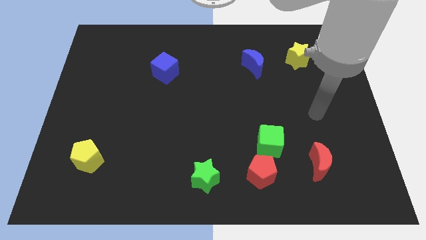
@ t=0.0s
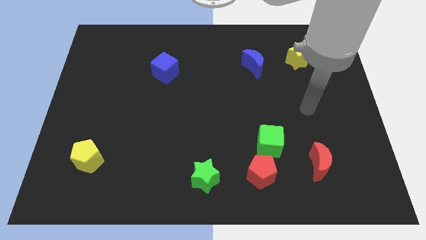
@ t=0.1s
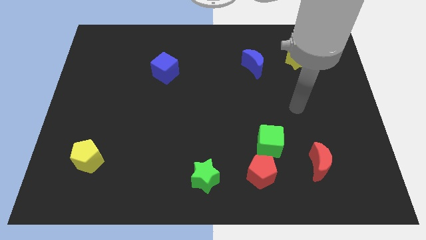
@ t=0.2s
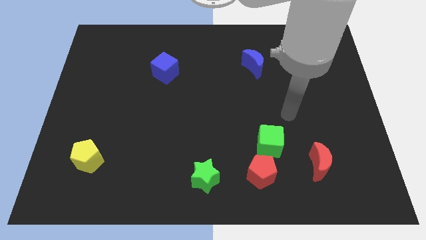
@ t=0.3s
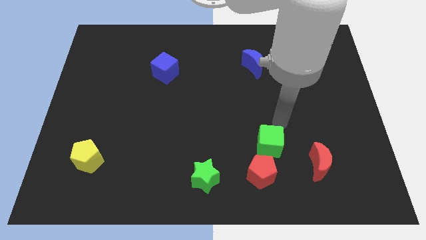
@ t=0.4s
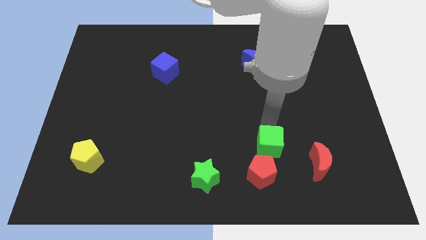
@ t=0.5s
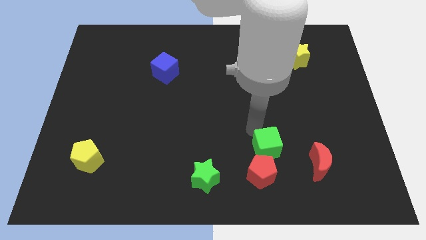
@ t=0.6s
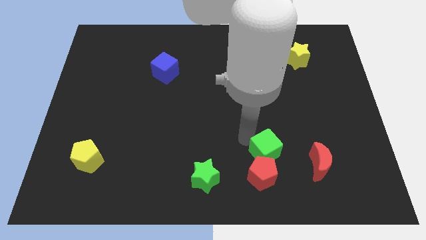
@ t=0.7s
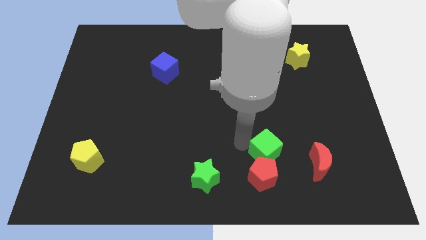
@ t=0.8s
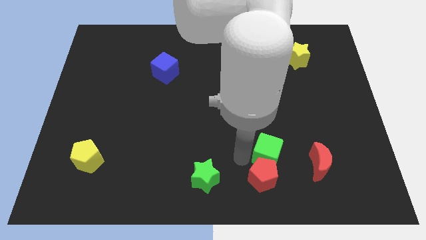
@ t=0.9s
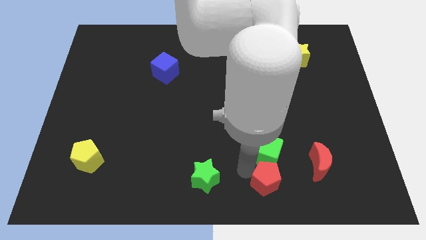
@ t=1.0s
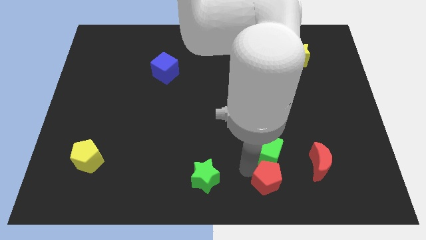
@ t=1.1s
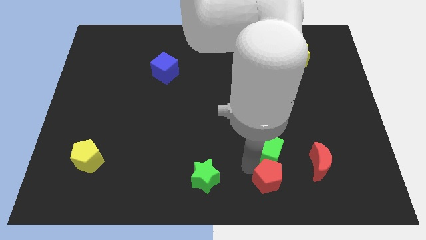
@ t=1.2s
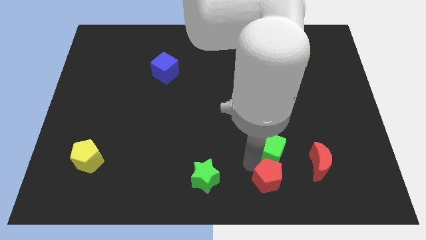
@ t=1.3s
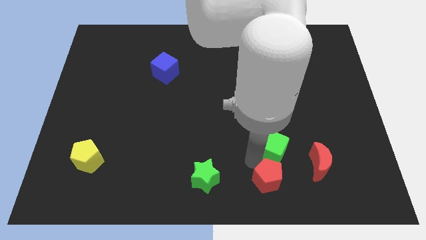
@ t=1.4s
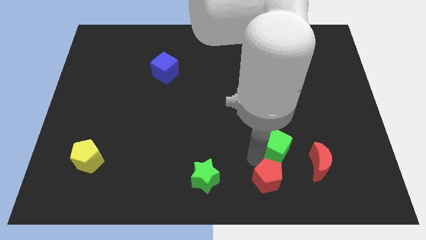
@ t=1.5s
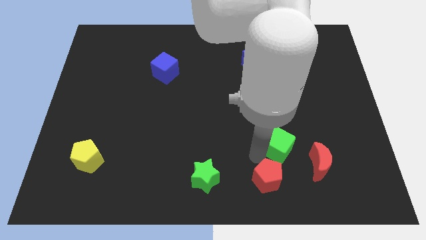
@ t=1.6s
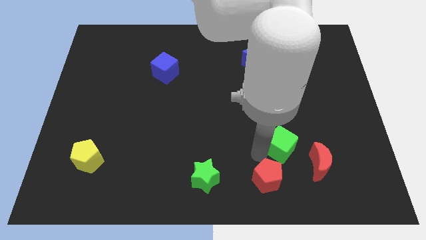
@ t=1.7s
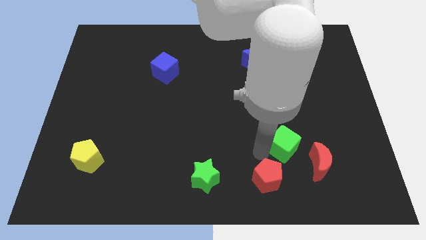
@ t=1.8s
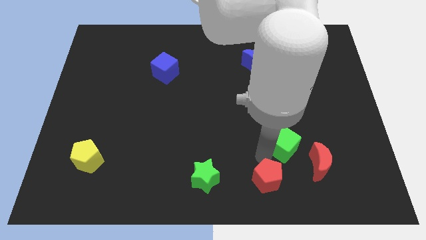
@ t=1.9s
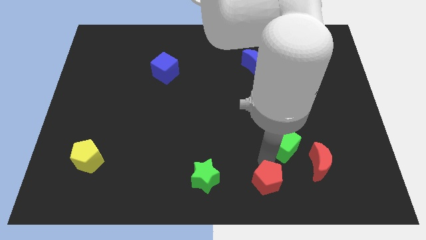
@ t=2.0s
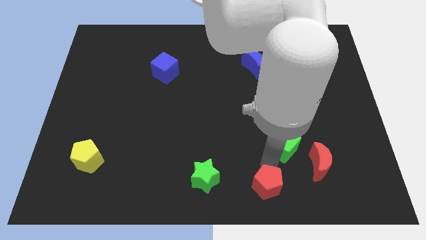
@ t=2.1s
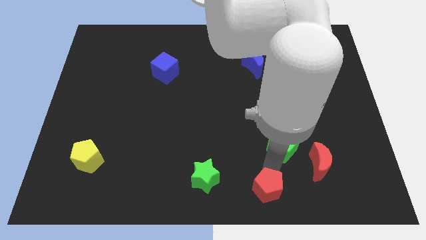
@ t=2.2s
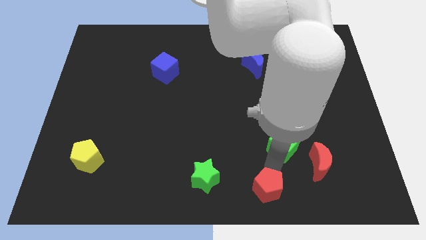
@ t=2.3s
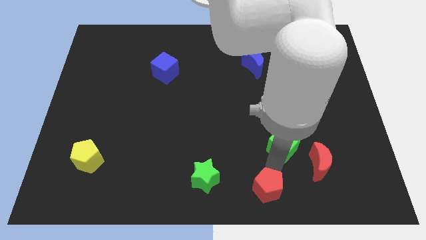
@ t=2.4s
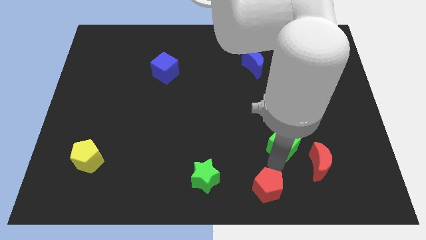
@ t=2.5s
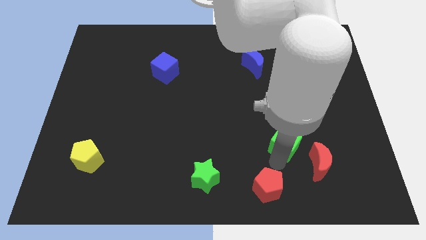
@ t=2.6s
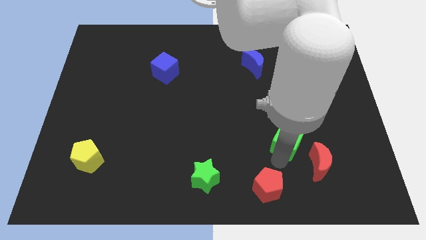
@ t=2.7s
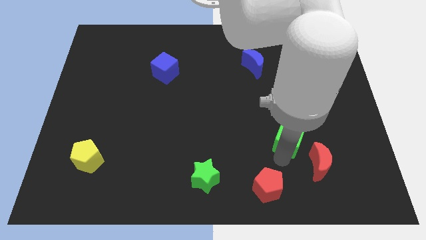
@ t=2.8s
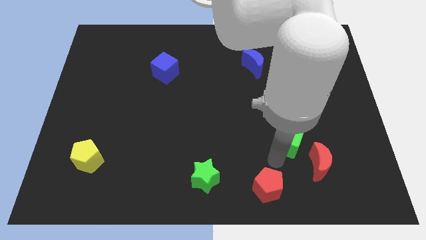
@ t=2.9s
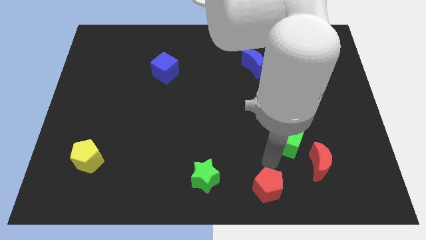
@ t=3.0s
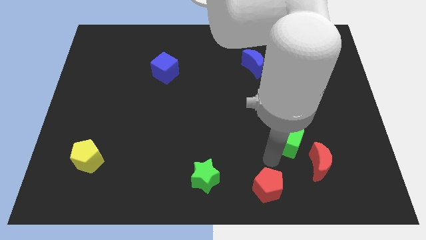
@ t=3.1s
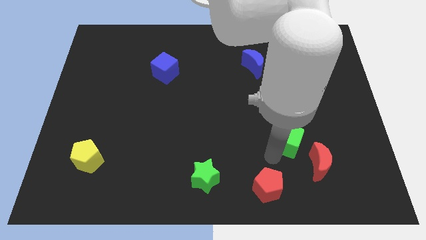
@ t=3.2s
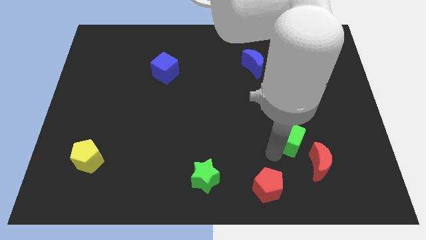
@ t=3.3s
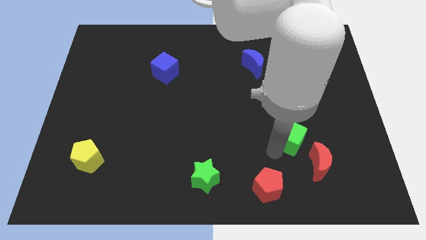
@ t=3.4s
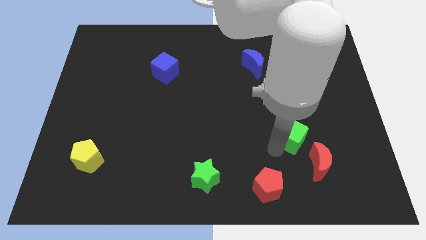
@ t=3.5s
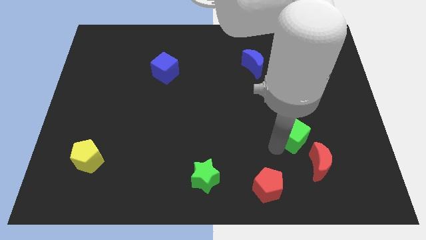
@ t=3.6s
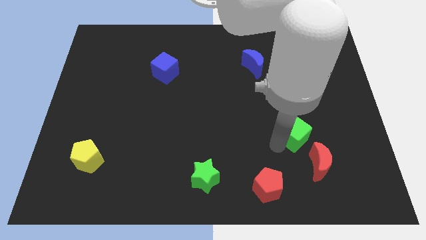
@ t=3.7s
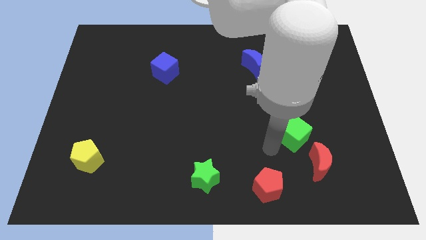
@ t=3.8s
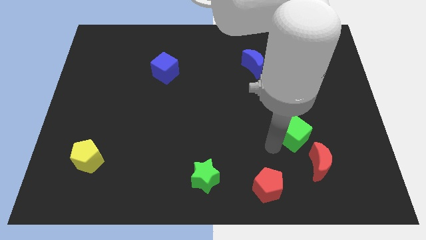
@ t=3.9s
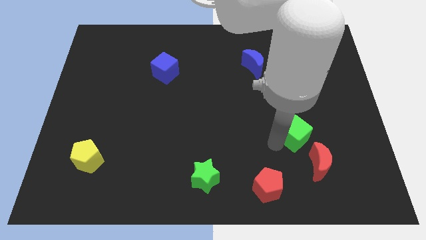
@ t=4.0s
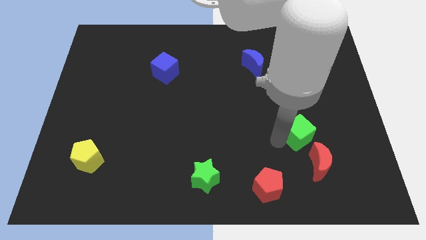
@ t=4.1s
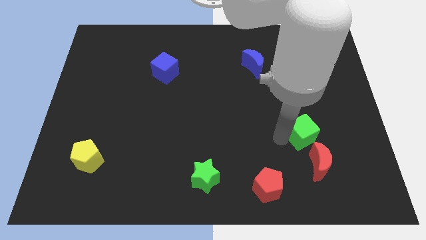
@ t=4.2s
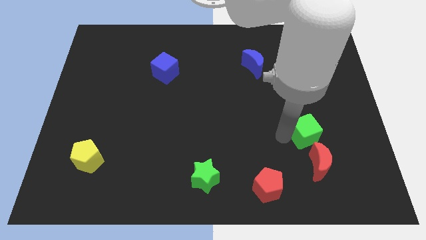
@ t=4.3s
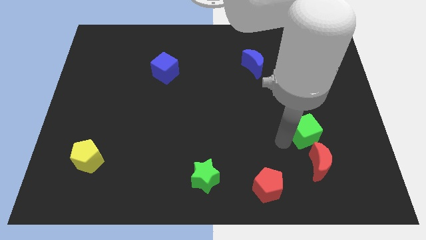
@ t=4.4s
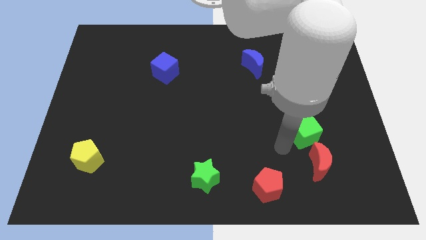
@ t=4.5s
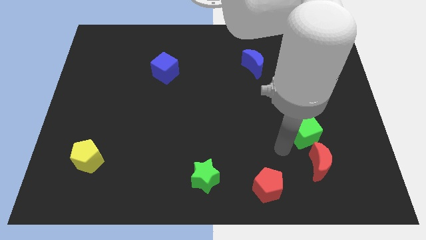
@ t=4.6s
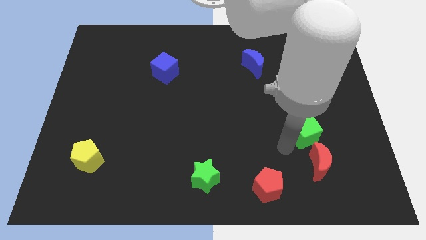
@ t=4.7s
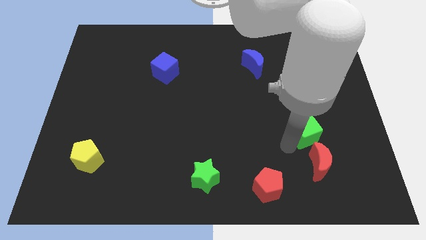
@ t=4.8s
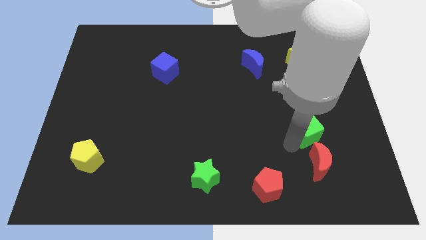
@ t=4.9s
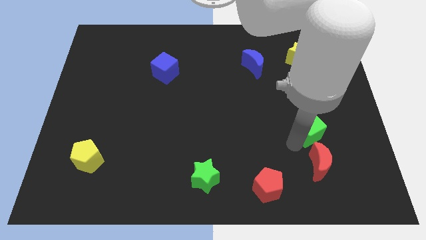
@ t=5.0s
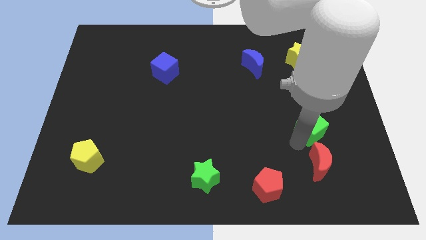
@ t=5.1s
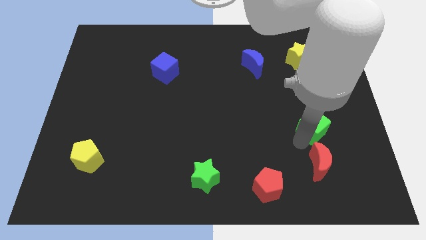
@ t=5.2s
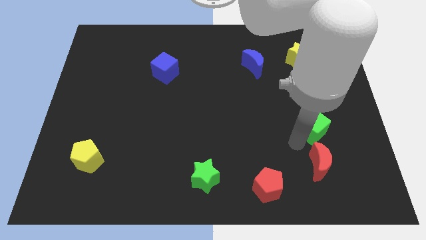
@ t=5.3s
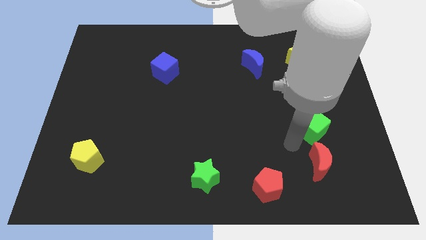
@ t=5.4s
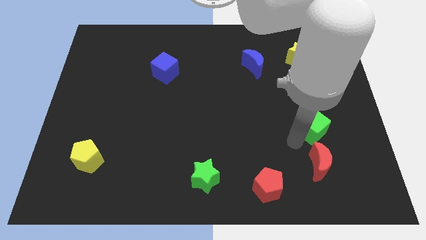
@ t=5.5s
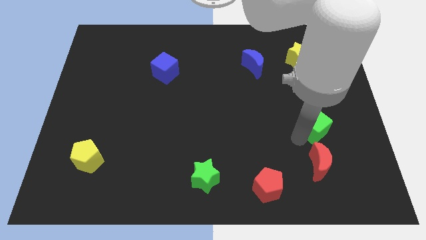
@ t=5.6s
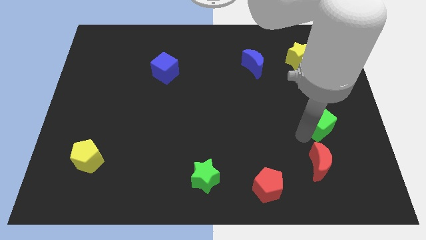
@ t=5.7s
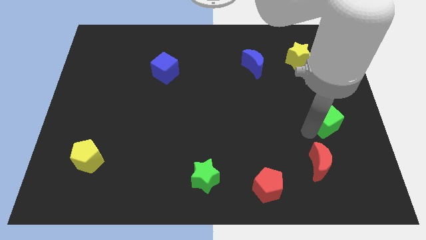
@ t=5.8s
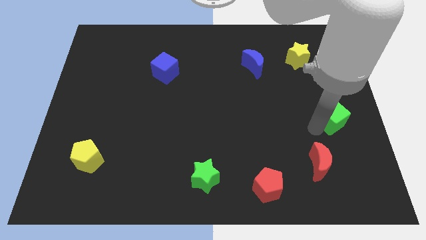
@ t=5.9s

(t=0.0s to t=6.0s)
push the green cube to the right side

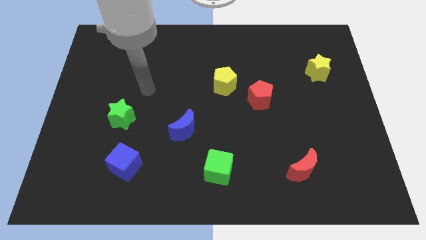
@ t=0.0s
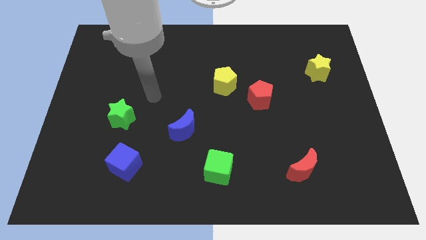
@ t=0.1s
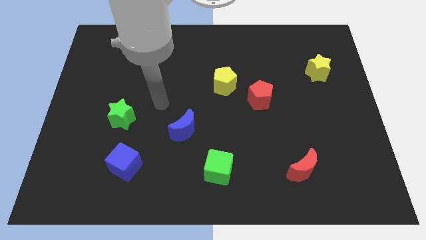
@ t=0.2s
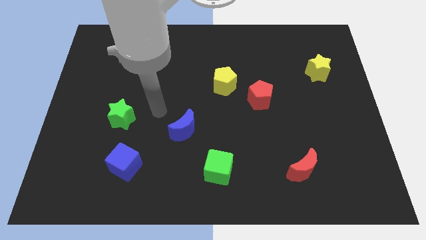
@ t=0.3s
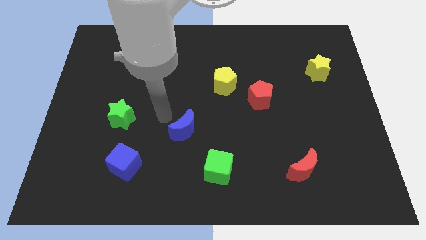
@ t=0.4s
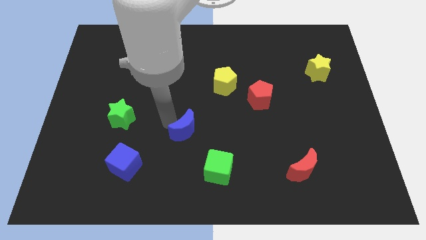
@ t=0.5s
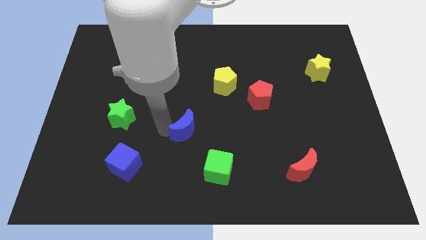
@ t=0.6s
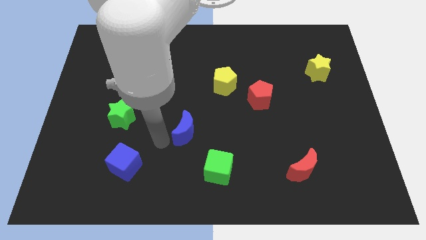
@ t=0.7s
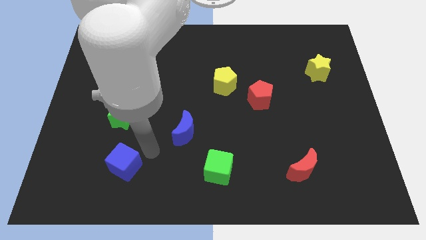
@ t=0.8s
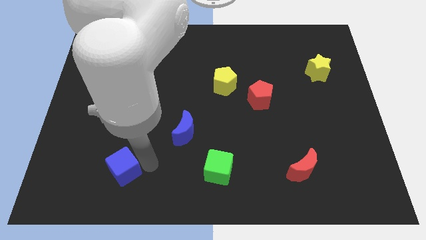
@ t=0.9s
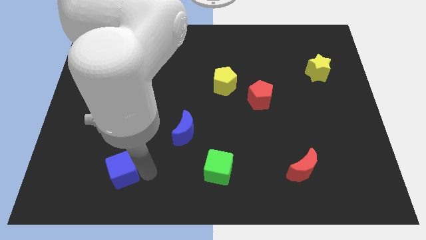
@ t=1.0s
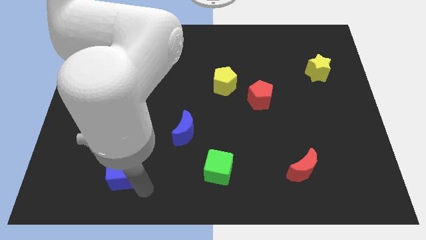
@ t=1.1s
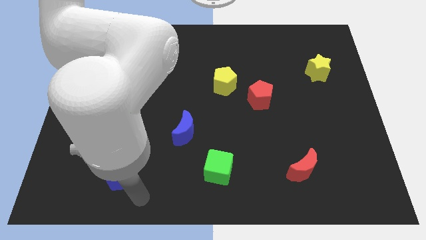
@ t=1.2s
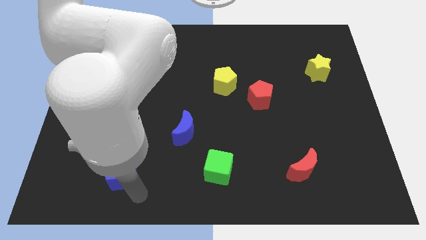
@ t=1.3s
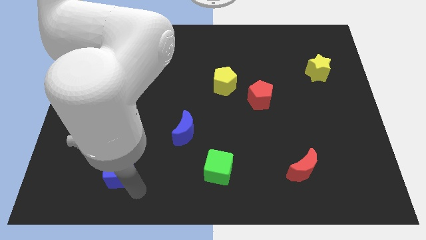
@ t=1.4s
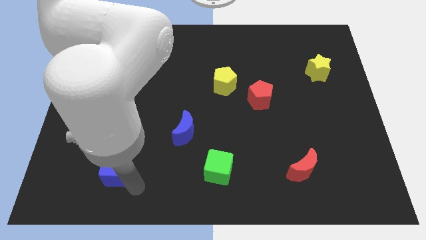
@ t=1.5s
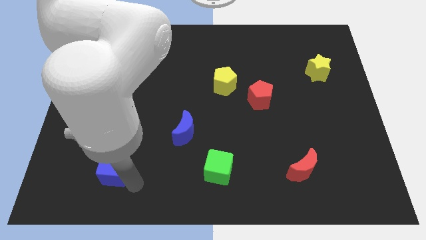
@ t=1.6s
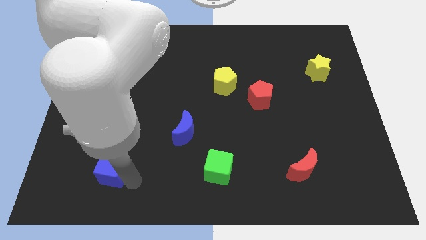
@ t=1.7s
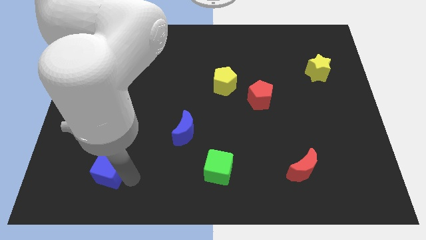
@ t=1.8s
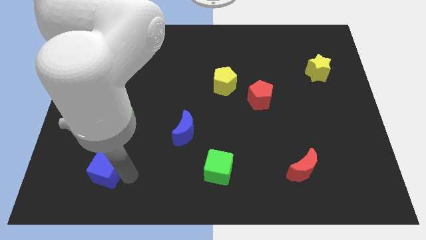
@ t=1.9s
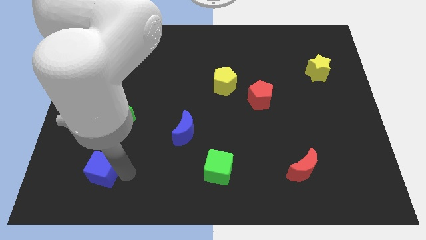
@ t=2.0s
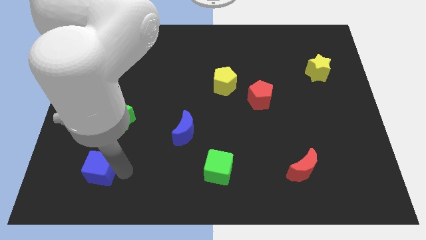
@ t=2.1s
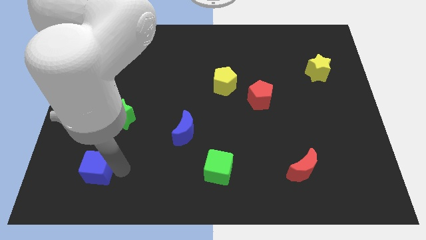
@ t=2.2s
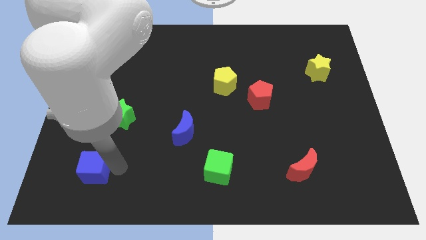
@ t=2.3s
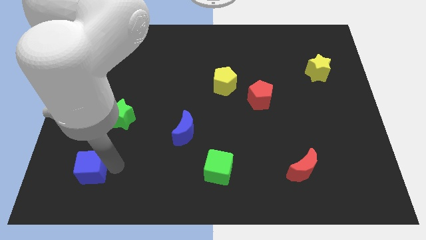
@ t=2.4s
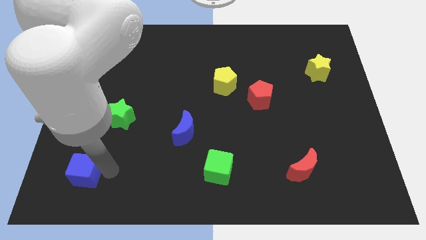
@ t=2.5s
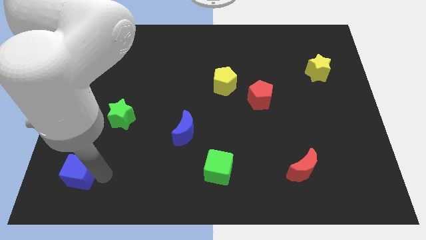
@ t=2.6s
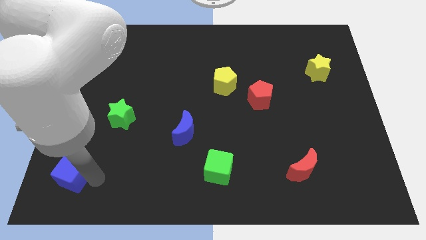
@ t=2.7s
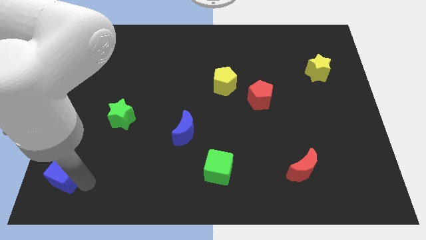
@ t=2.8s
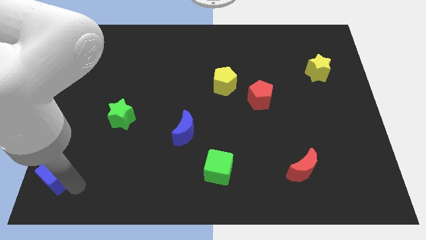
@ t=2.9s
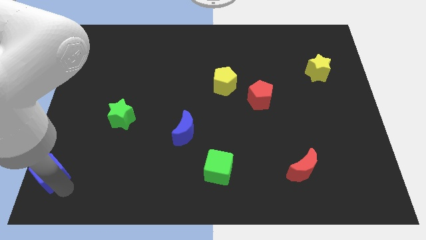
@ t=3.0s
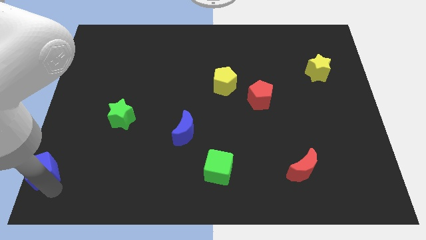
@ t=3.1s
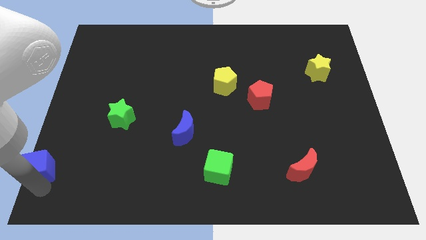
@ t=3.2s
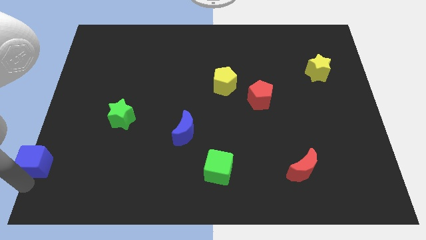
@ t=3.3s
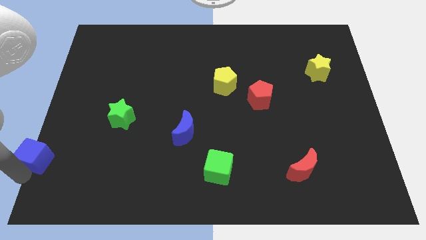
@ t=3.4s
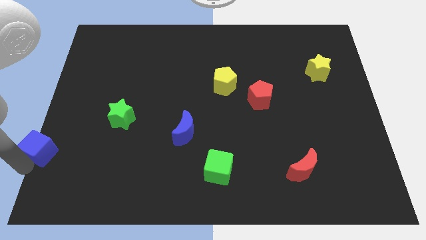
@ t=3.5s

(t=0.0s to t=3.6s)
push the blue cube to the left side
